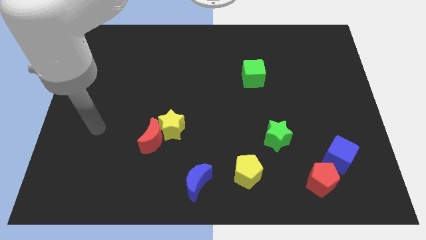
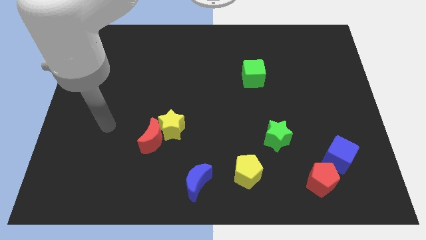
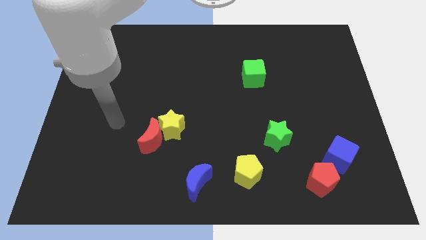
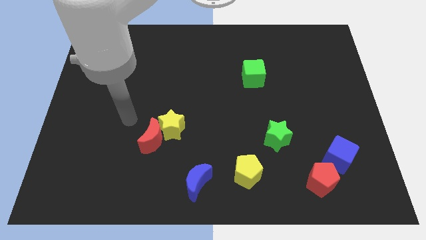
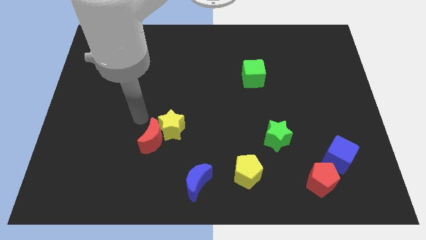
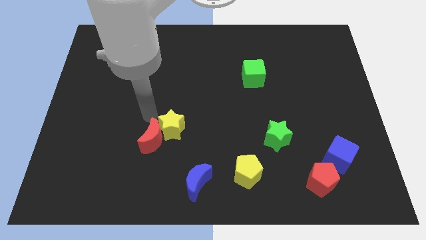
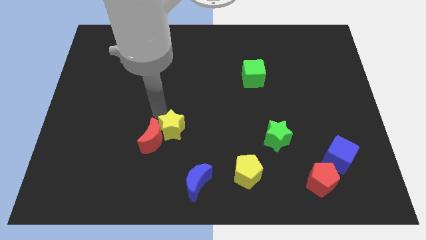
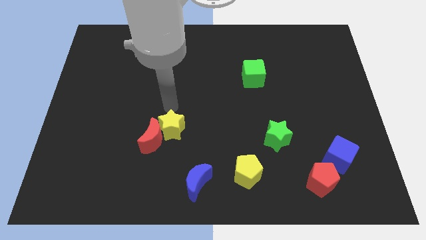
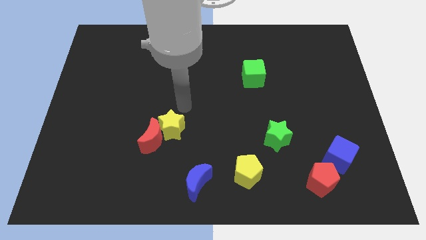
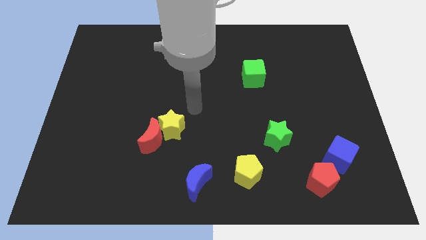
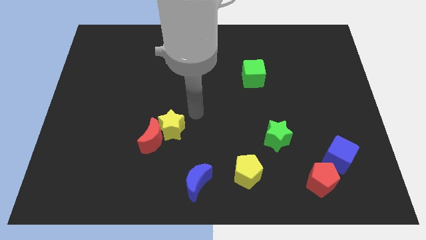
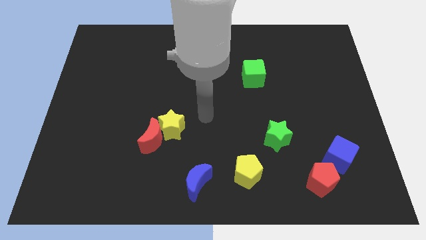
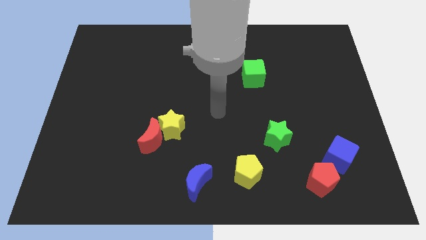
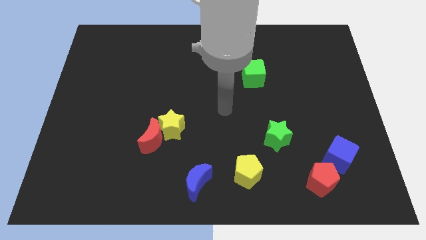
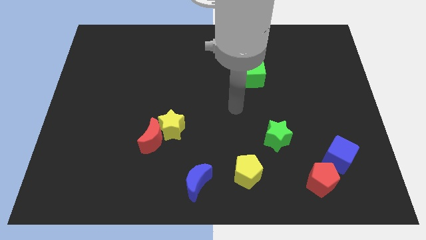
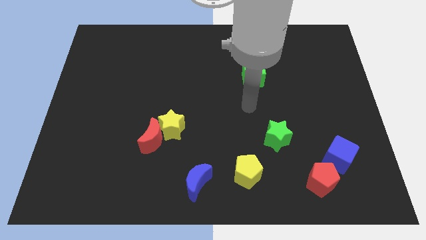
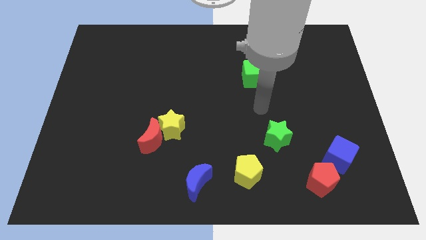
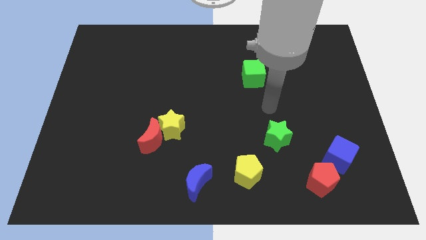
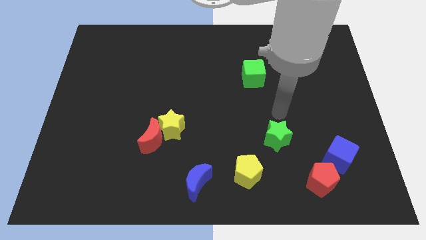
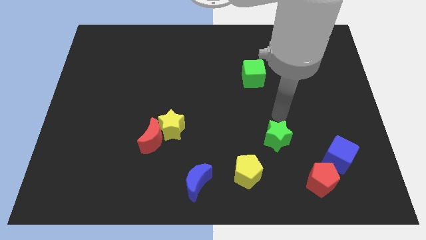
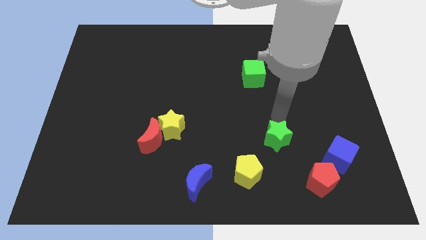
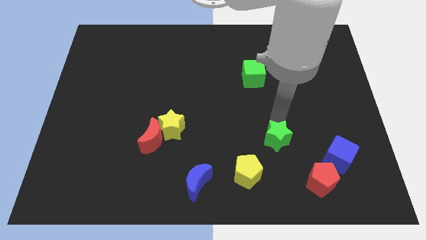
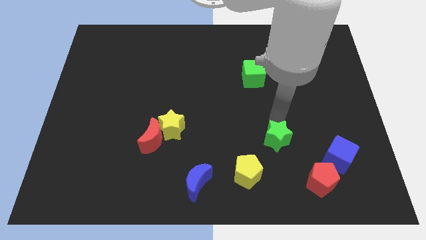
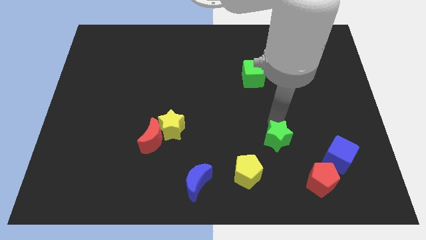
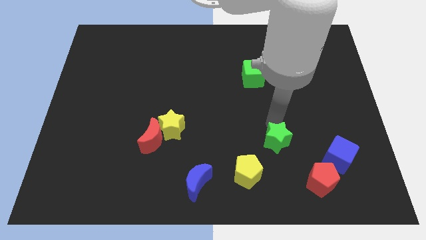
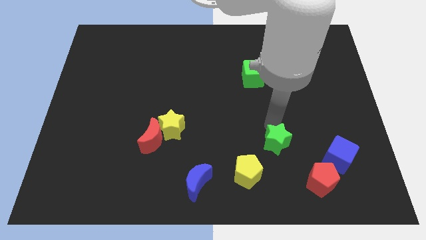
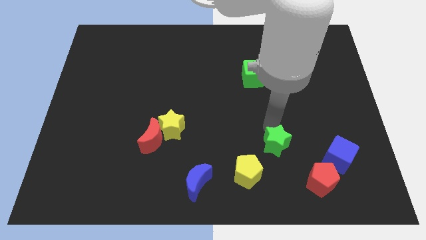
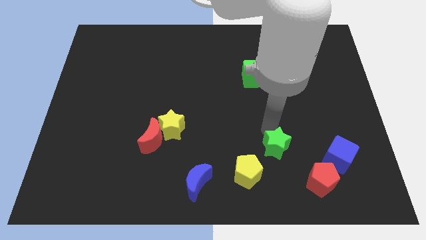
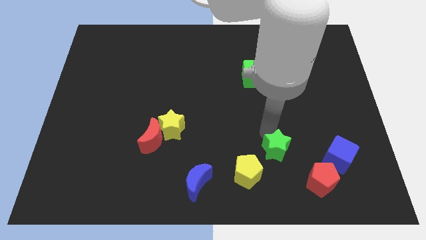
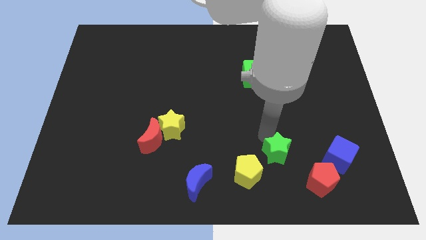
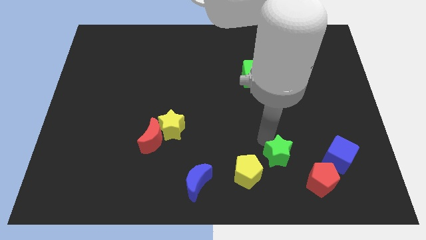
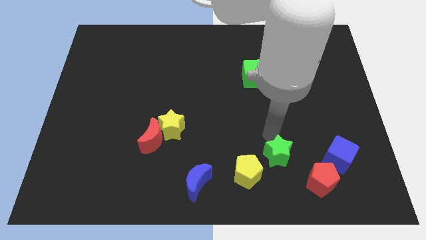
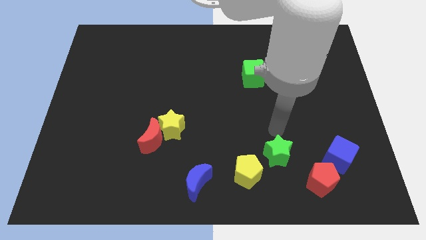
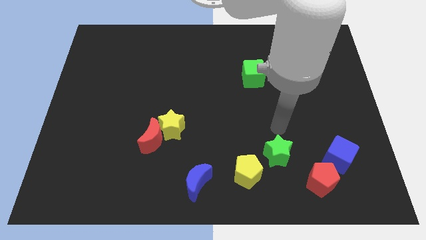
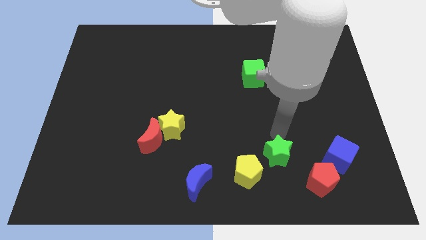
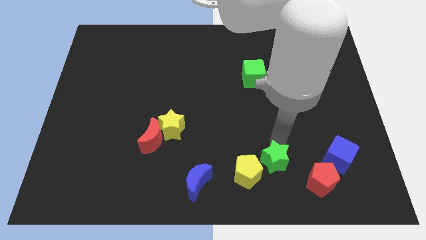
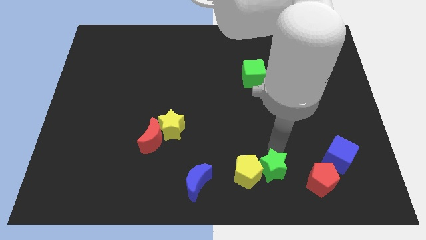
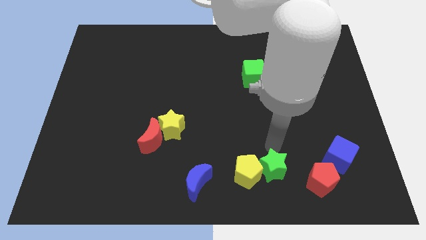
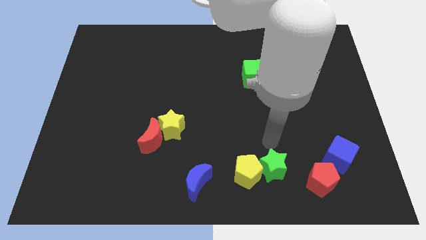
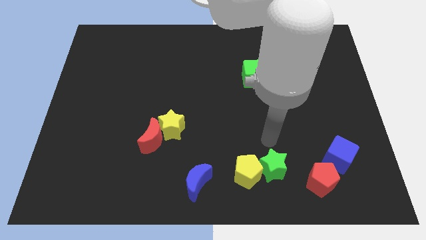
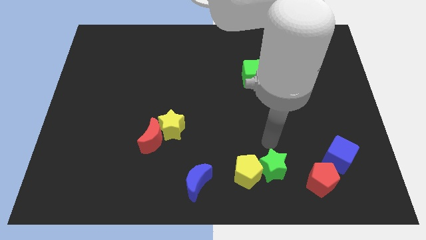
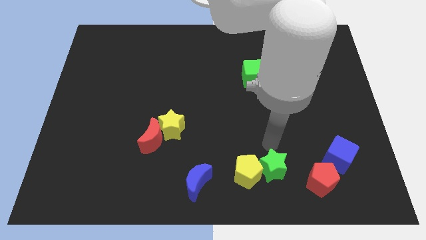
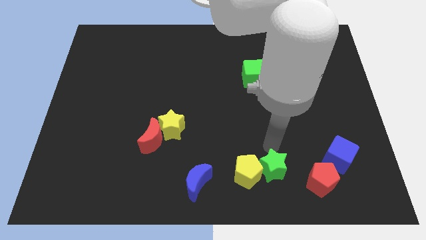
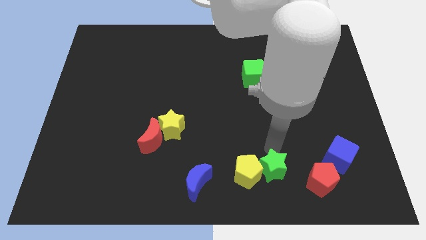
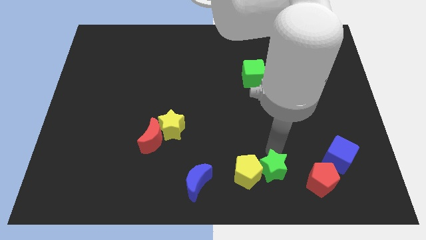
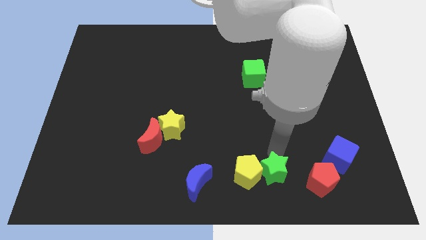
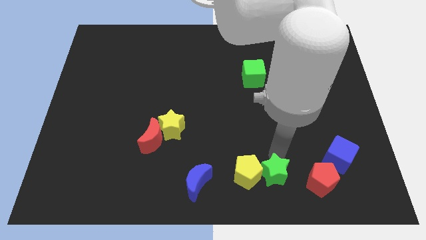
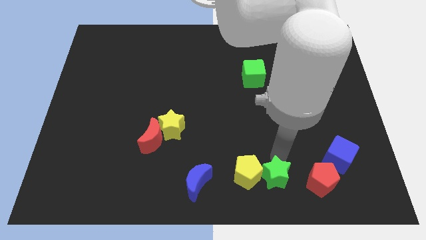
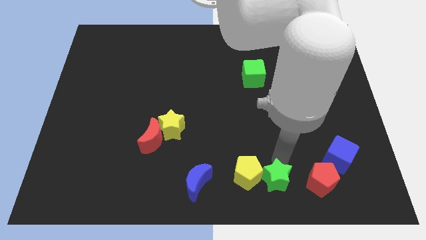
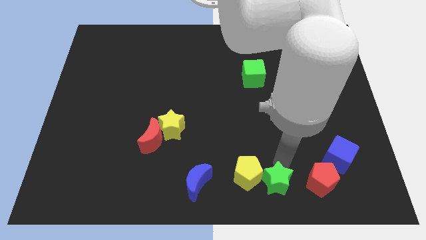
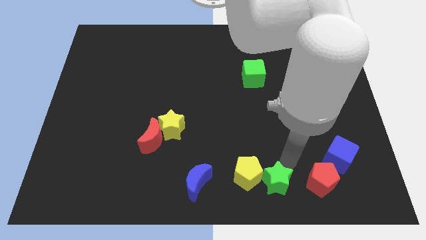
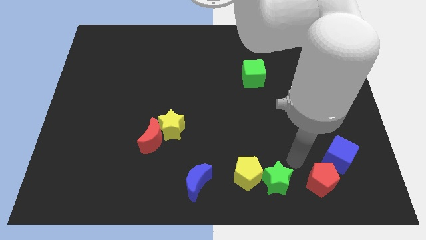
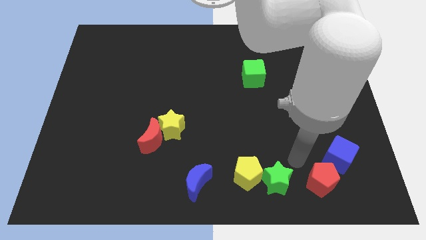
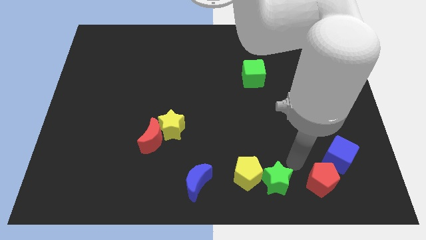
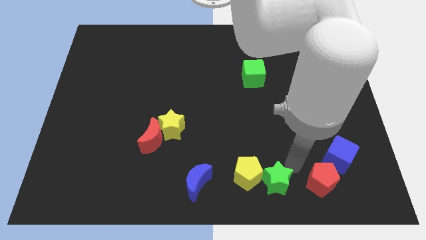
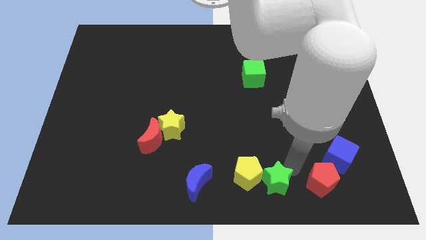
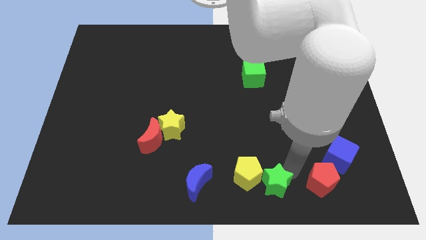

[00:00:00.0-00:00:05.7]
slide the green star to the bottom

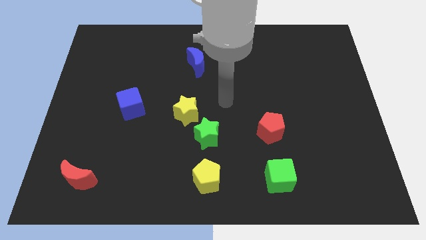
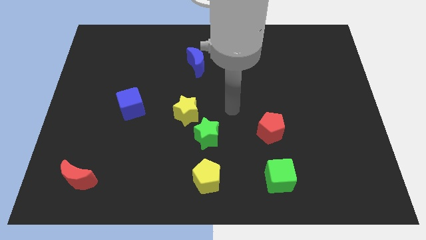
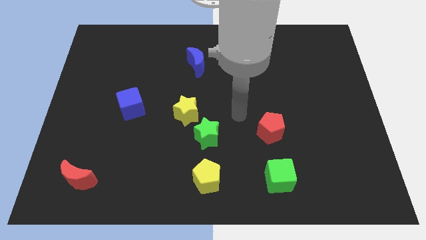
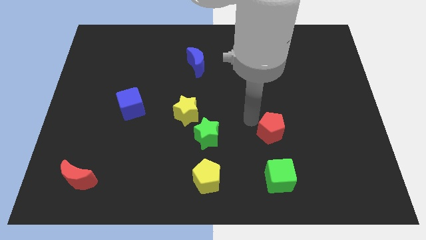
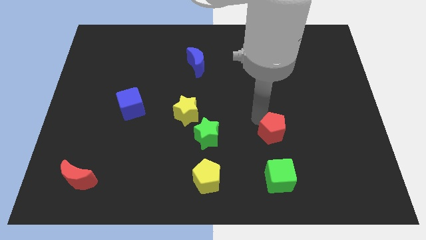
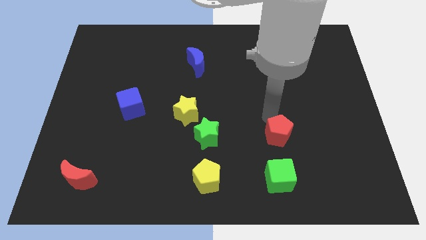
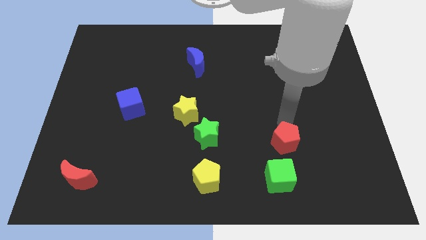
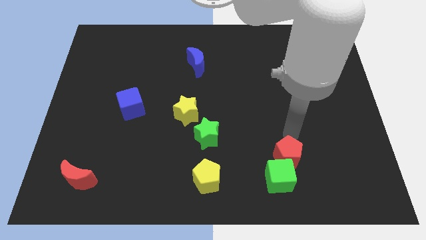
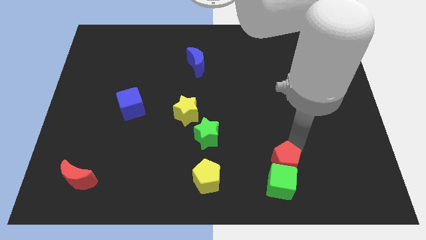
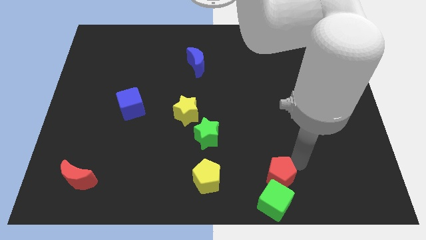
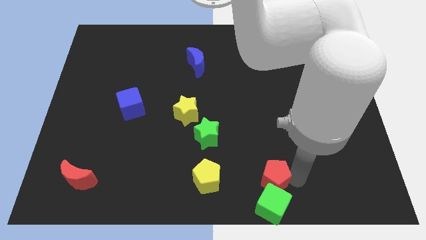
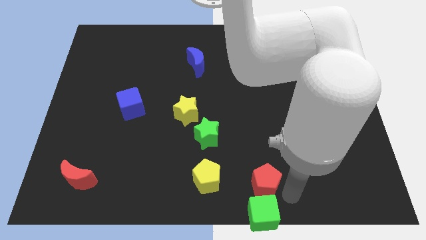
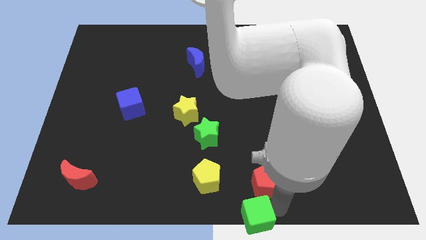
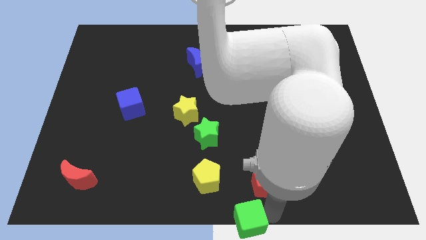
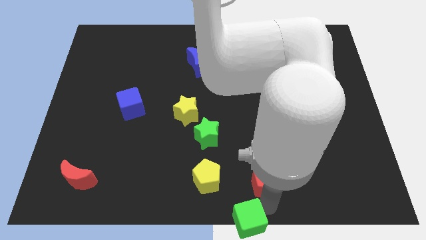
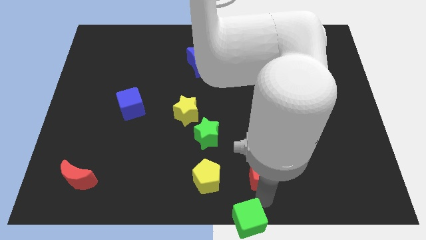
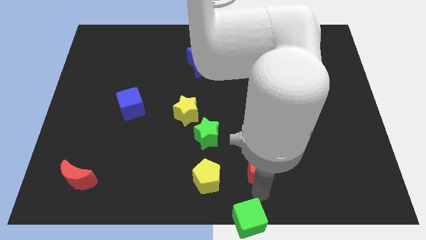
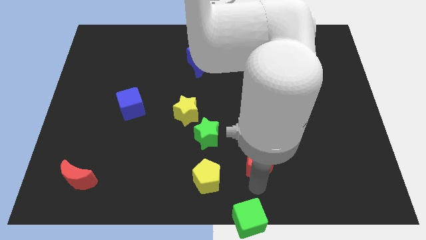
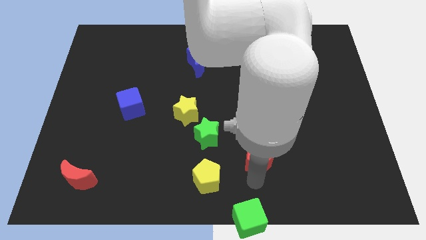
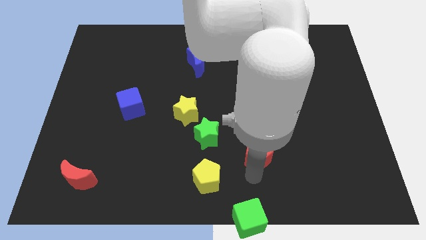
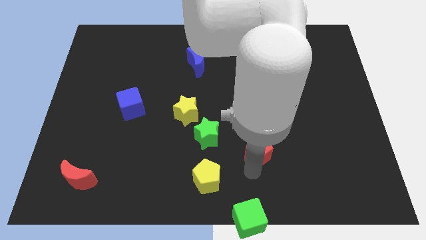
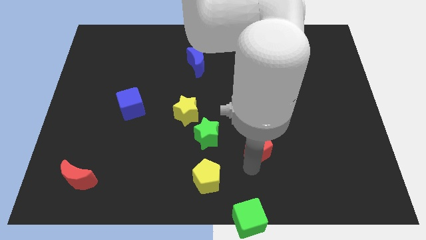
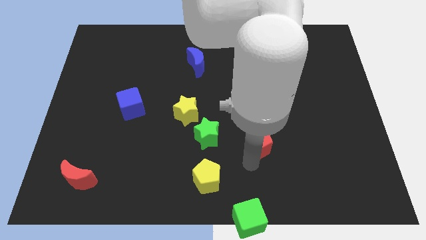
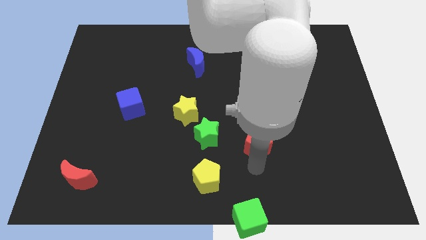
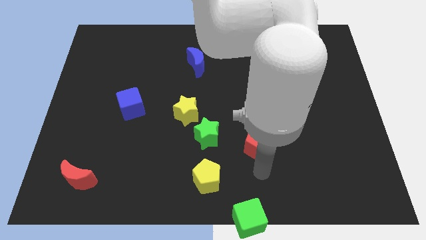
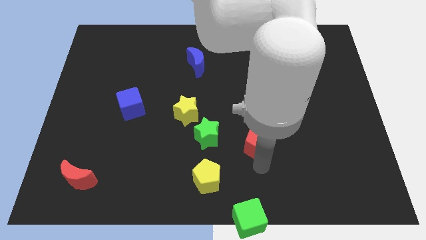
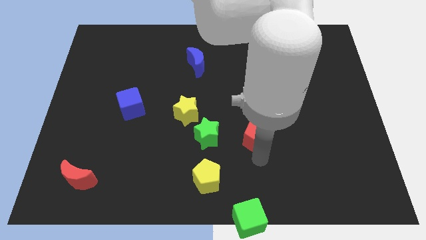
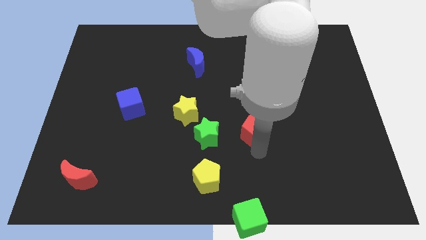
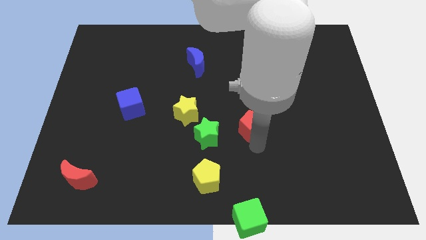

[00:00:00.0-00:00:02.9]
slide the red pentagon to the middle of the board
